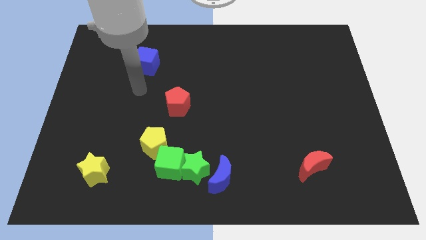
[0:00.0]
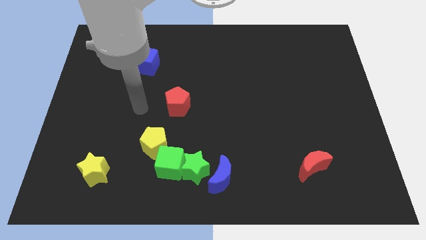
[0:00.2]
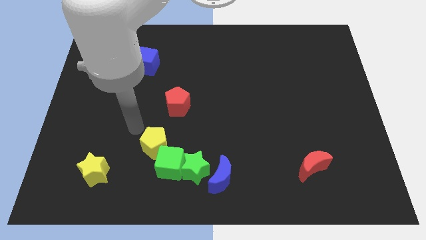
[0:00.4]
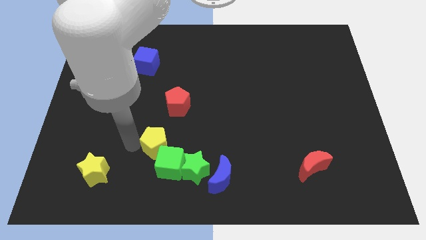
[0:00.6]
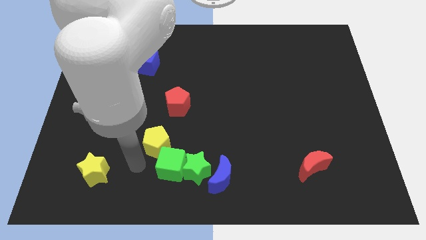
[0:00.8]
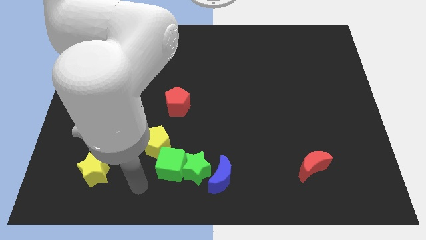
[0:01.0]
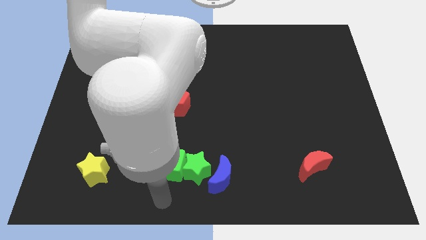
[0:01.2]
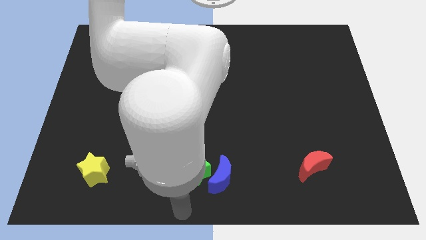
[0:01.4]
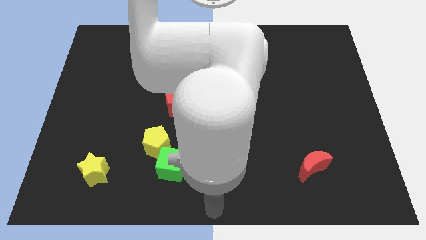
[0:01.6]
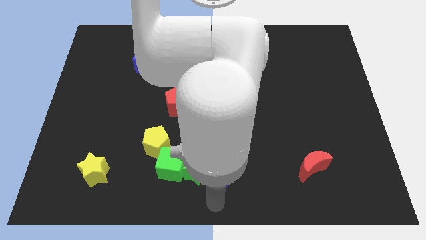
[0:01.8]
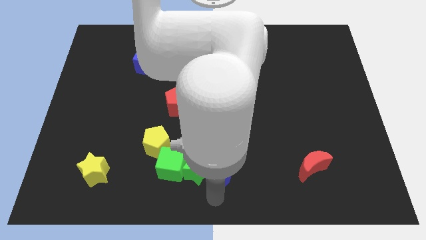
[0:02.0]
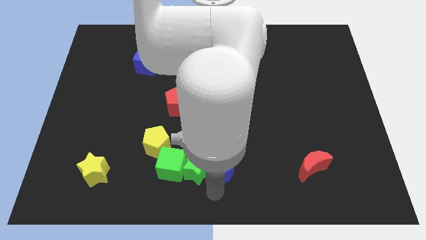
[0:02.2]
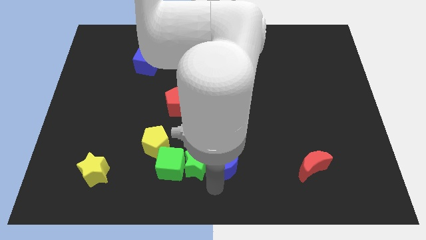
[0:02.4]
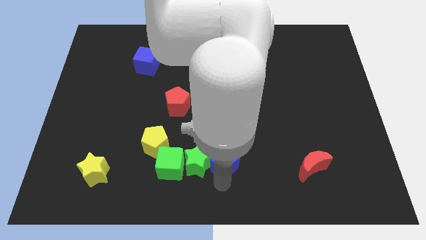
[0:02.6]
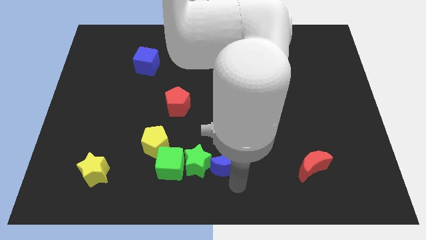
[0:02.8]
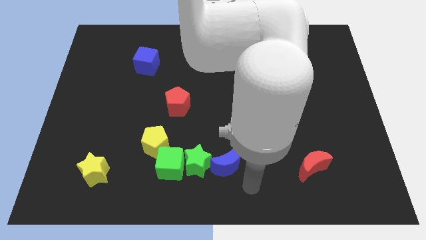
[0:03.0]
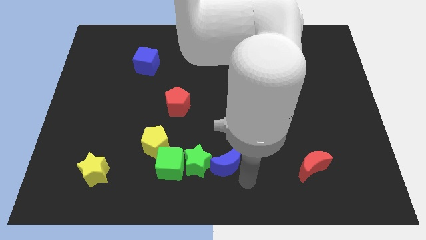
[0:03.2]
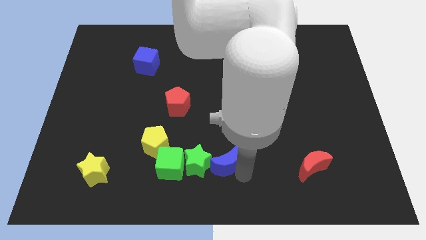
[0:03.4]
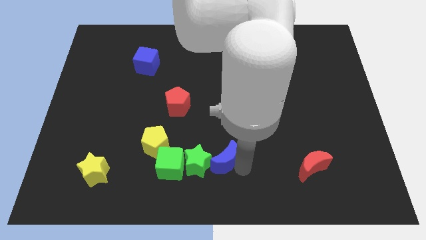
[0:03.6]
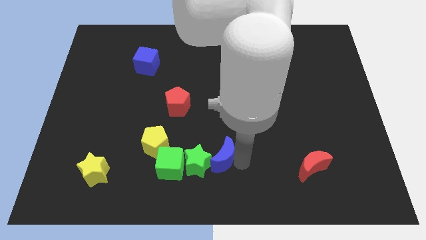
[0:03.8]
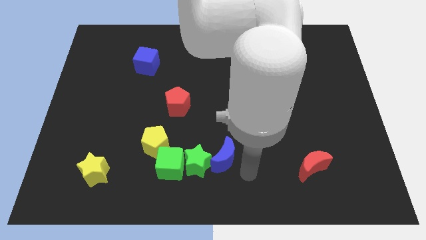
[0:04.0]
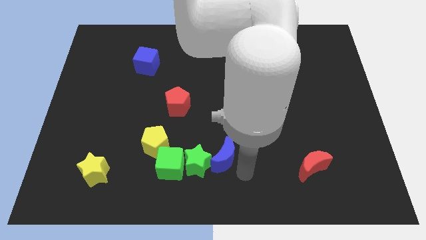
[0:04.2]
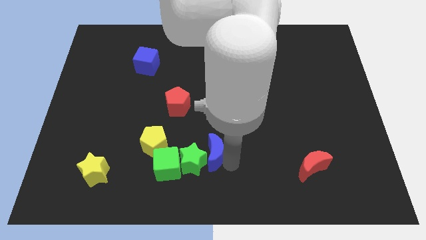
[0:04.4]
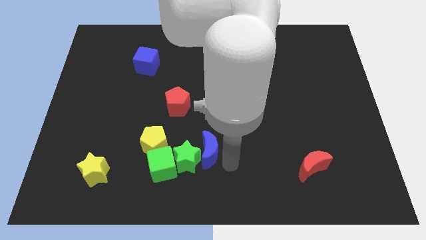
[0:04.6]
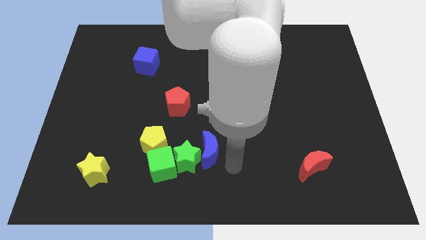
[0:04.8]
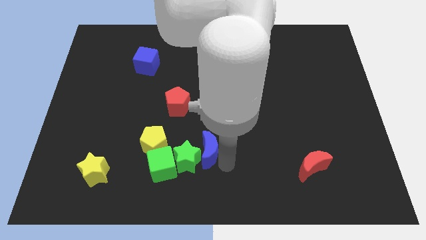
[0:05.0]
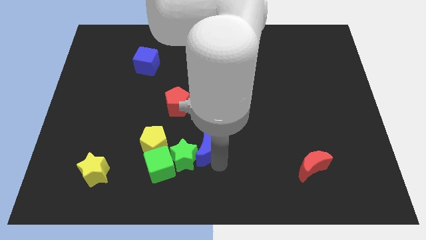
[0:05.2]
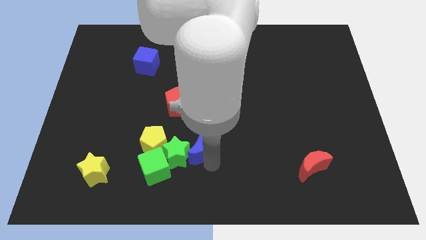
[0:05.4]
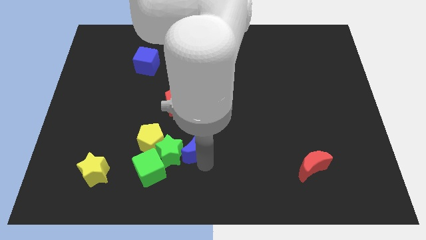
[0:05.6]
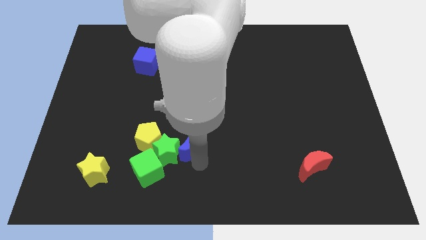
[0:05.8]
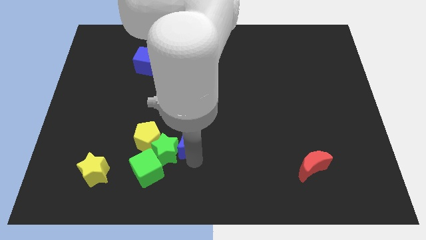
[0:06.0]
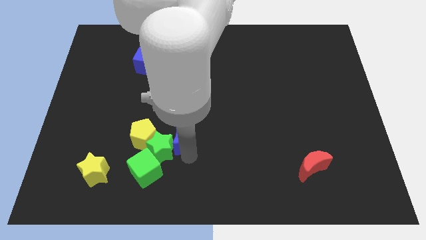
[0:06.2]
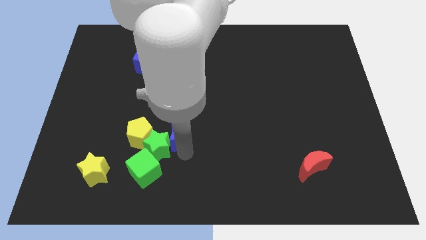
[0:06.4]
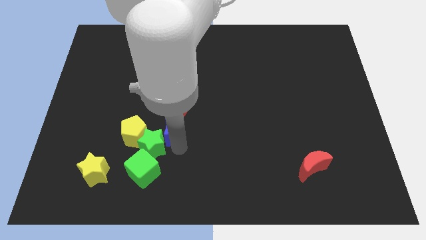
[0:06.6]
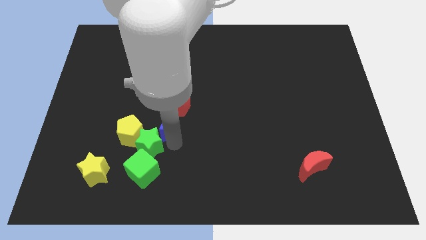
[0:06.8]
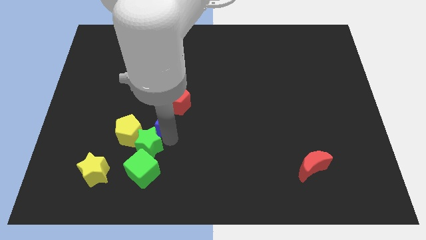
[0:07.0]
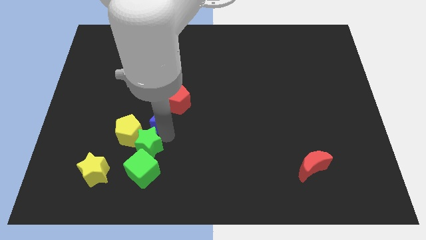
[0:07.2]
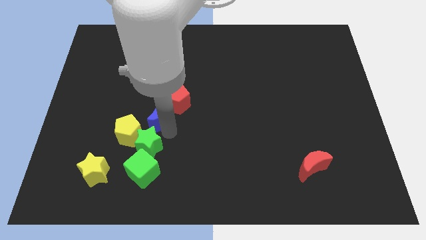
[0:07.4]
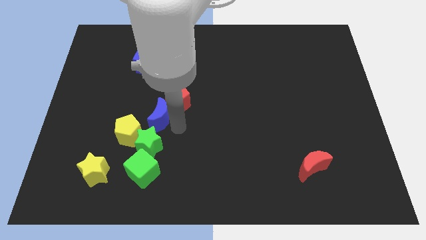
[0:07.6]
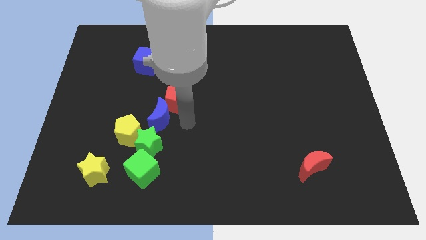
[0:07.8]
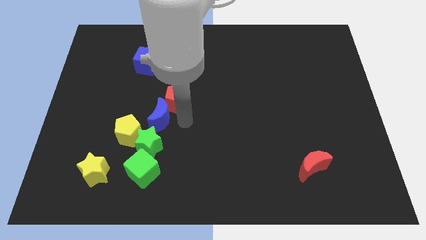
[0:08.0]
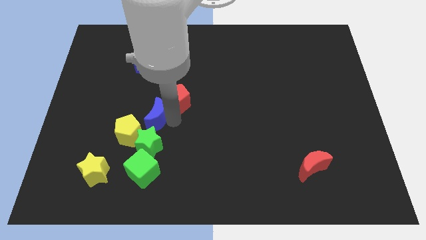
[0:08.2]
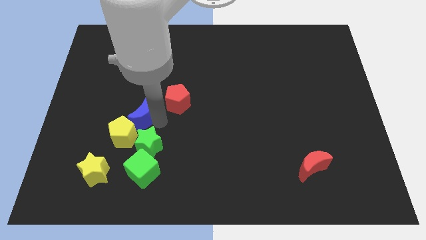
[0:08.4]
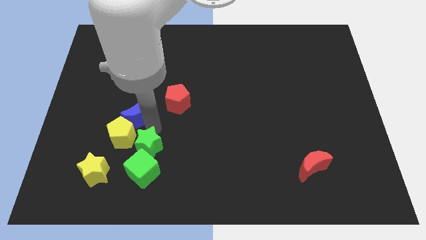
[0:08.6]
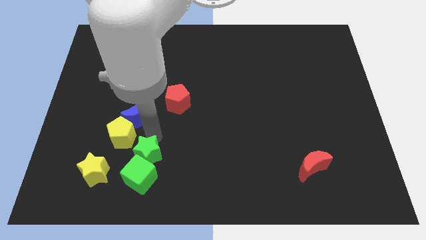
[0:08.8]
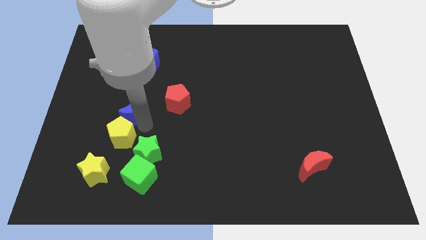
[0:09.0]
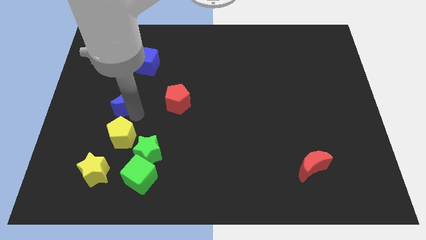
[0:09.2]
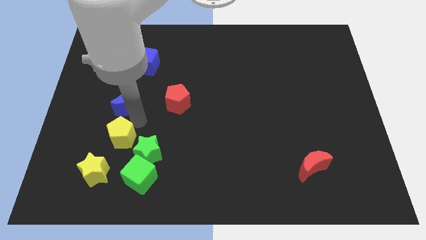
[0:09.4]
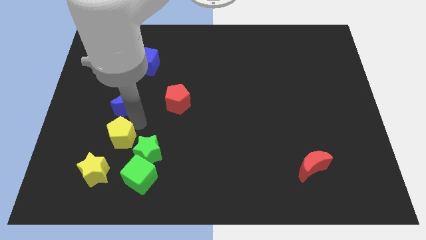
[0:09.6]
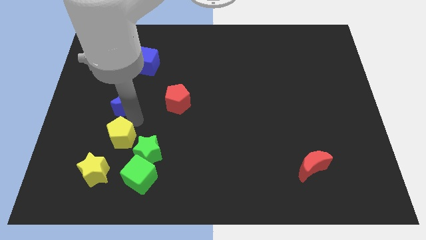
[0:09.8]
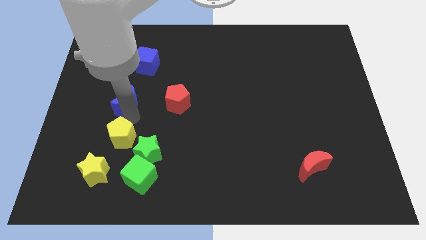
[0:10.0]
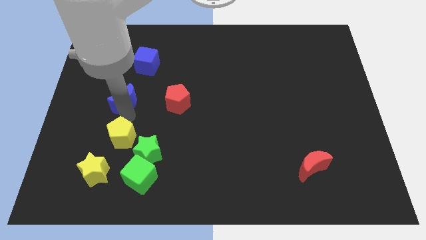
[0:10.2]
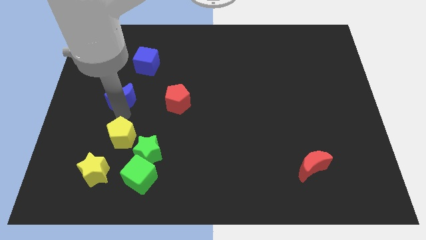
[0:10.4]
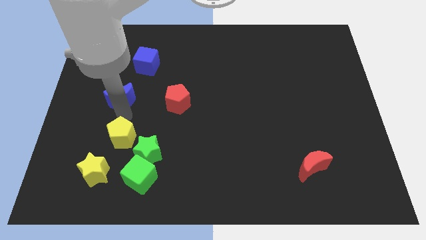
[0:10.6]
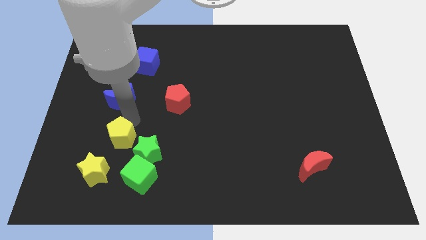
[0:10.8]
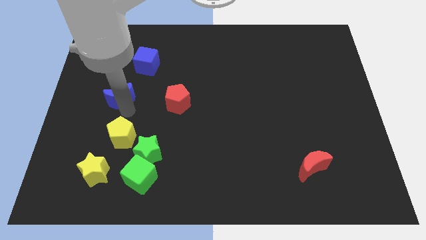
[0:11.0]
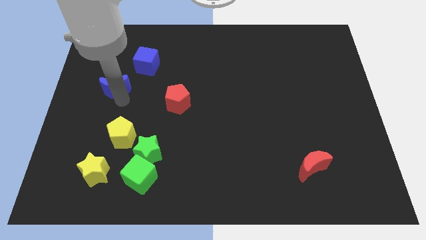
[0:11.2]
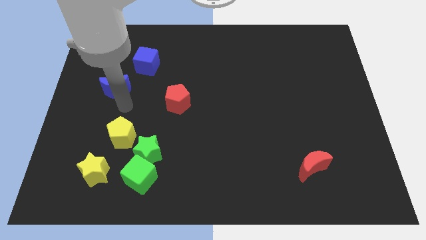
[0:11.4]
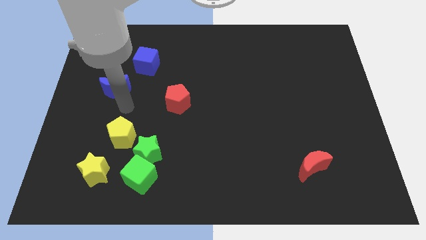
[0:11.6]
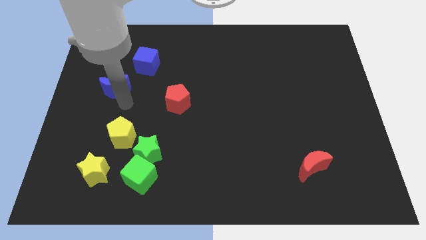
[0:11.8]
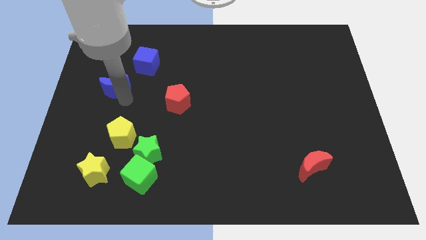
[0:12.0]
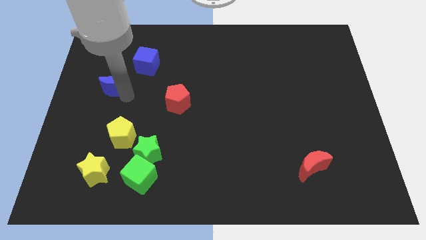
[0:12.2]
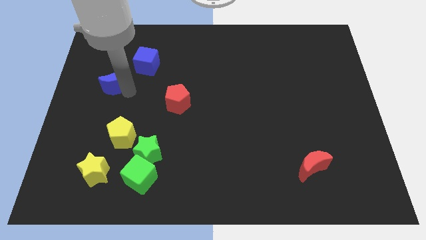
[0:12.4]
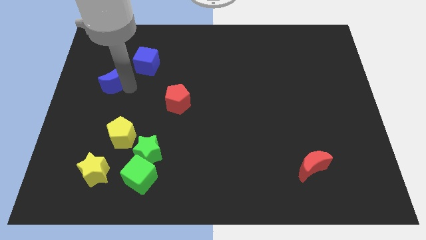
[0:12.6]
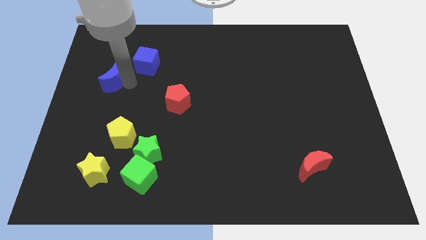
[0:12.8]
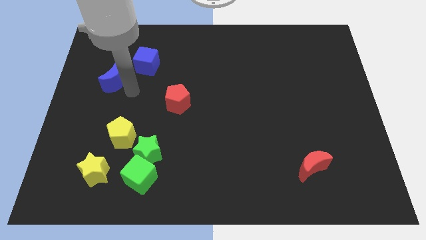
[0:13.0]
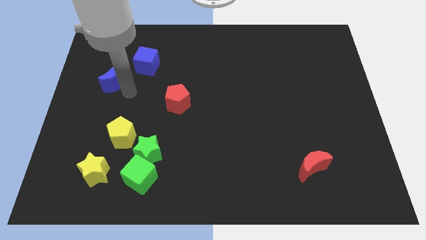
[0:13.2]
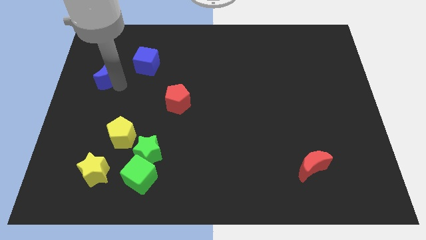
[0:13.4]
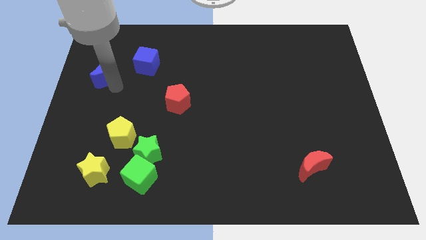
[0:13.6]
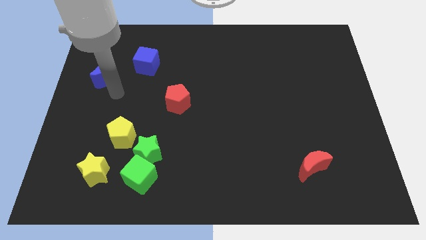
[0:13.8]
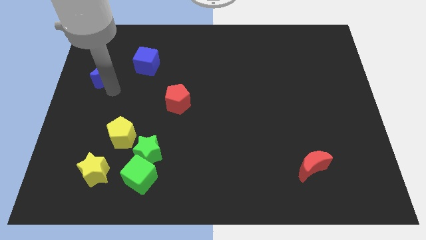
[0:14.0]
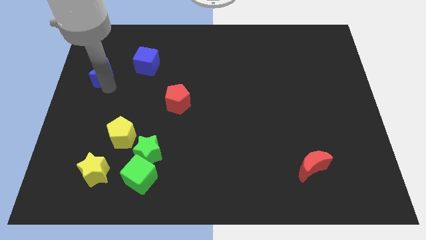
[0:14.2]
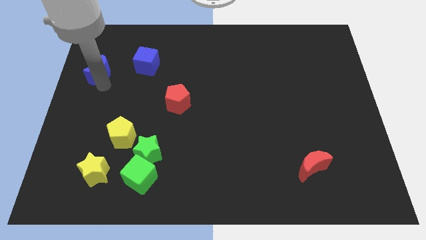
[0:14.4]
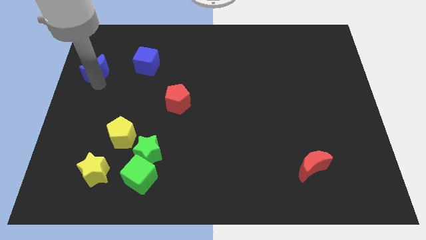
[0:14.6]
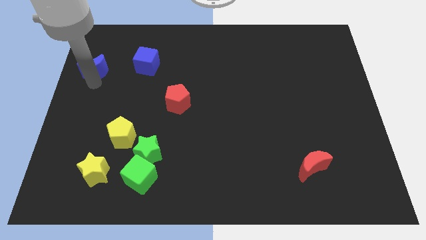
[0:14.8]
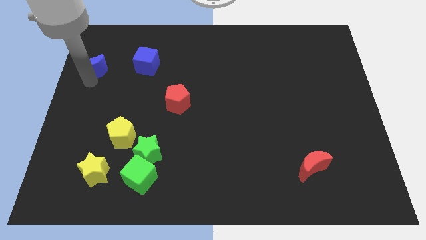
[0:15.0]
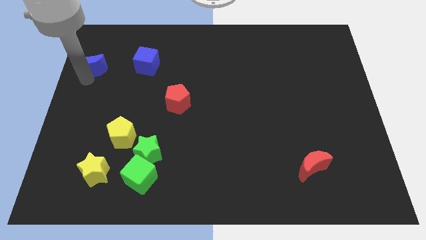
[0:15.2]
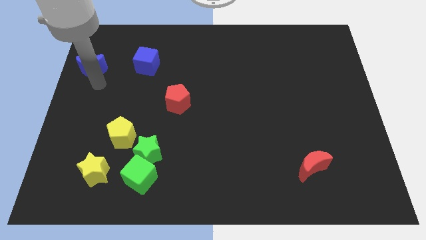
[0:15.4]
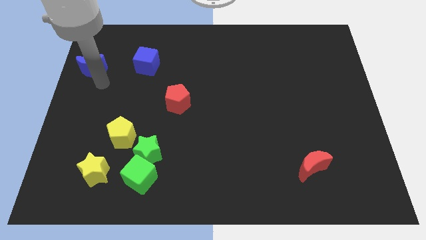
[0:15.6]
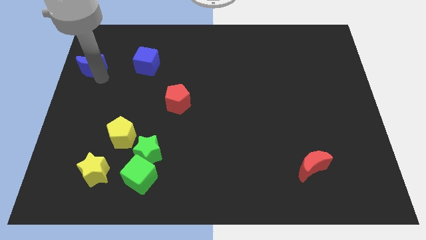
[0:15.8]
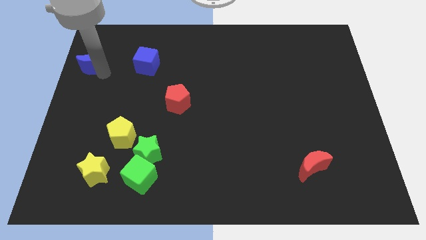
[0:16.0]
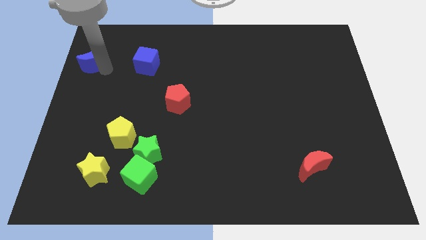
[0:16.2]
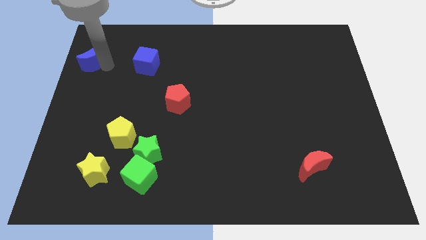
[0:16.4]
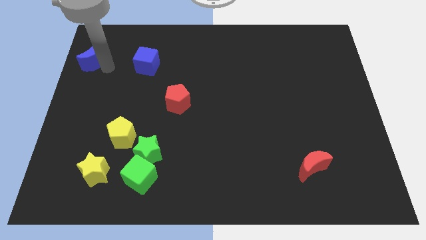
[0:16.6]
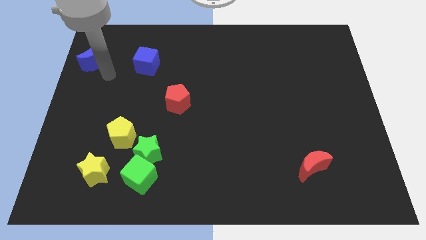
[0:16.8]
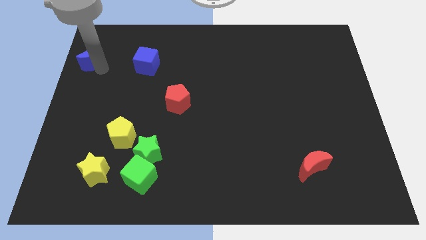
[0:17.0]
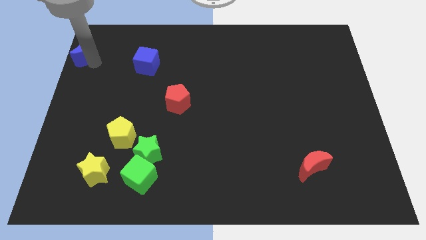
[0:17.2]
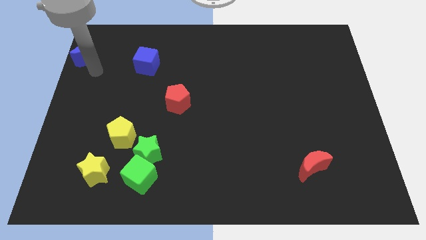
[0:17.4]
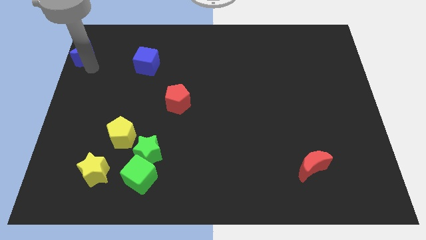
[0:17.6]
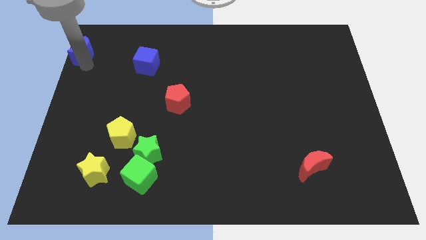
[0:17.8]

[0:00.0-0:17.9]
put the blue moon to the top left corner
